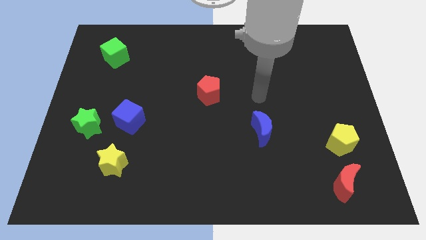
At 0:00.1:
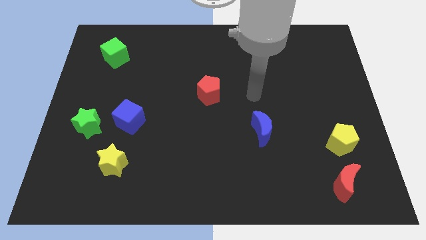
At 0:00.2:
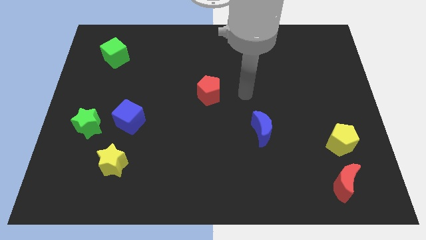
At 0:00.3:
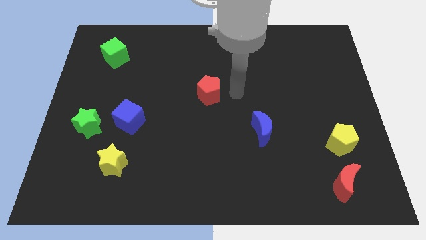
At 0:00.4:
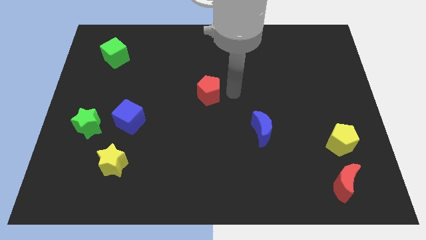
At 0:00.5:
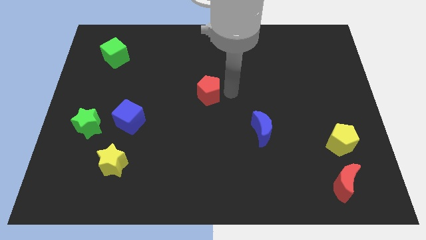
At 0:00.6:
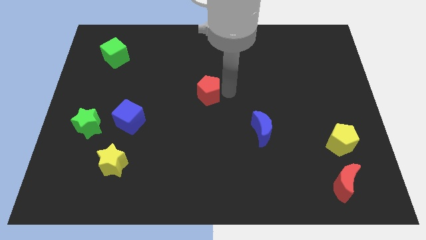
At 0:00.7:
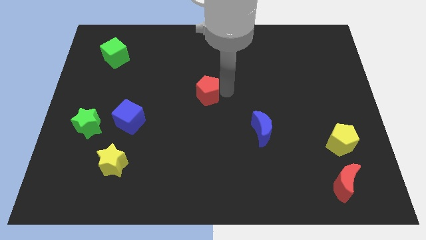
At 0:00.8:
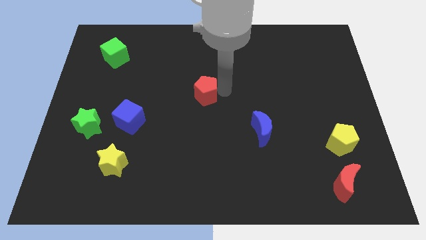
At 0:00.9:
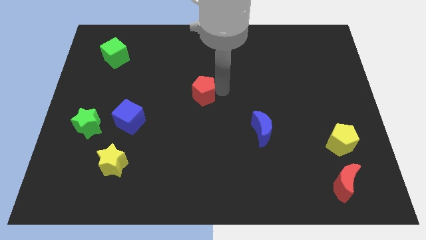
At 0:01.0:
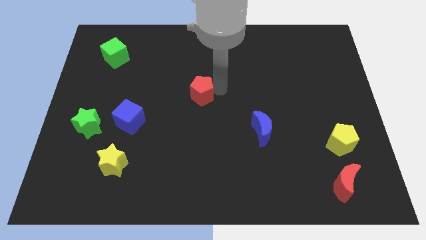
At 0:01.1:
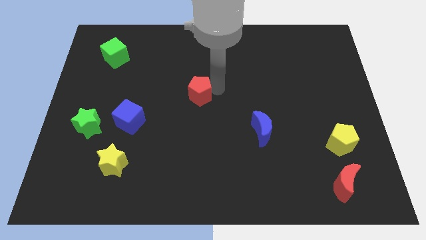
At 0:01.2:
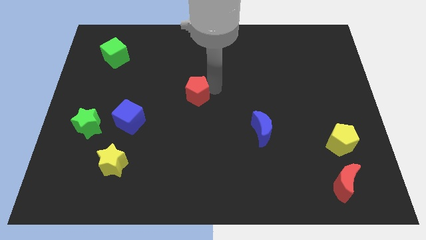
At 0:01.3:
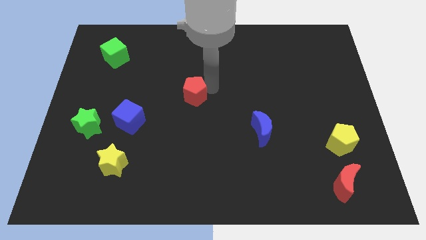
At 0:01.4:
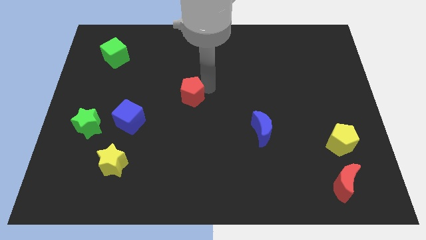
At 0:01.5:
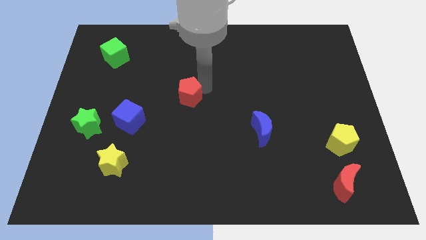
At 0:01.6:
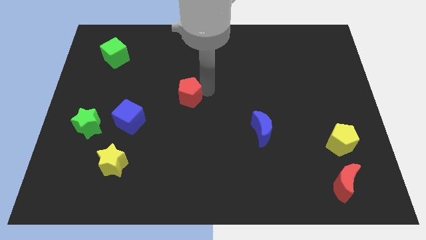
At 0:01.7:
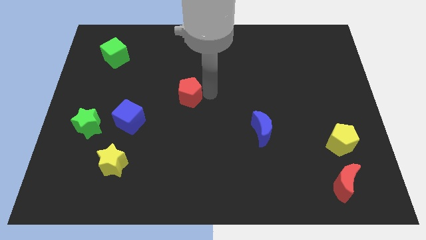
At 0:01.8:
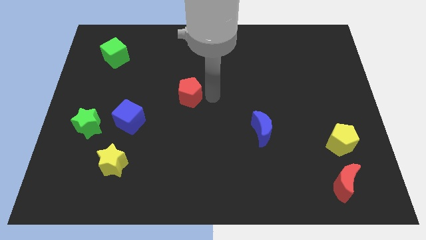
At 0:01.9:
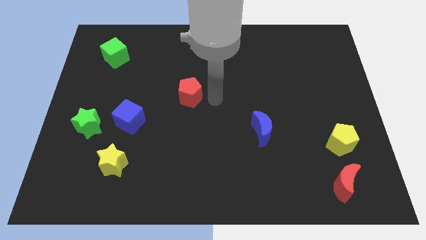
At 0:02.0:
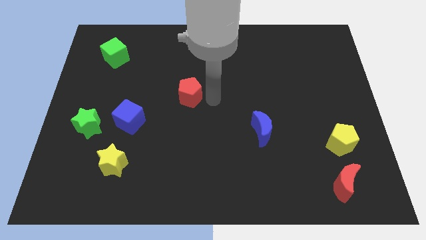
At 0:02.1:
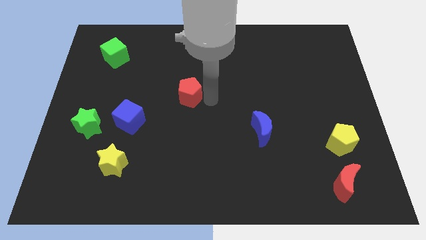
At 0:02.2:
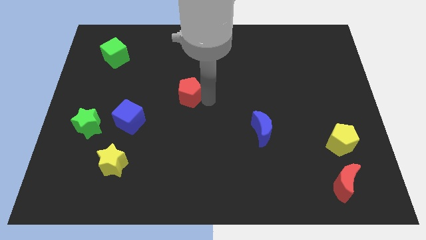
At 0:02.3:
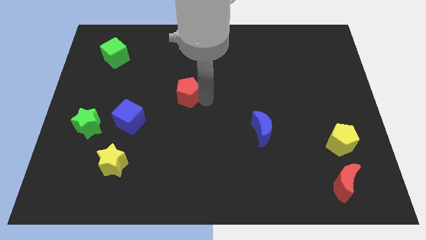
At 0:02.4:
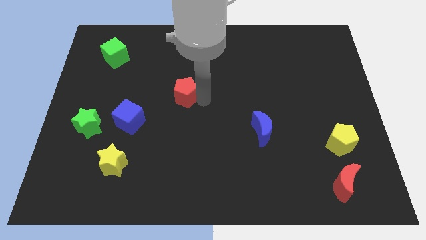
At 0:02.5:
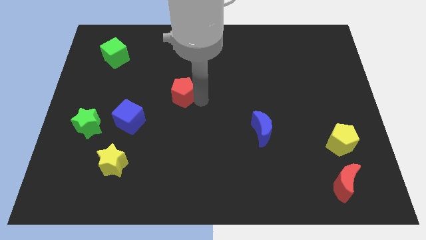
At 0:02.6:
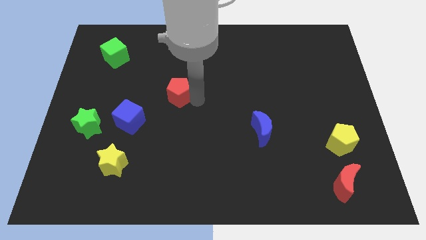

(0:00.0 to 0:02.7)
push the red pentagon somewhat to the left

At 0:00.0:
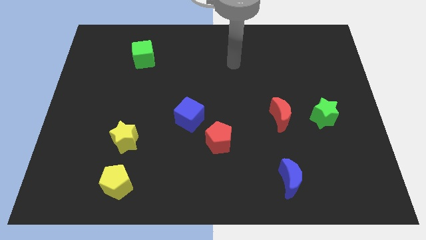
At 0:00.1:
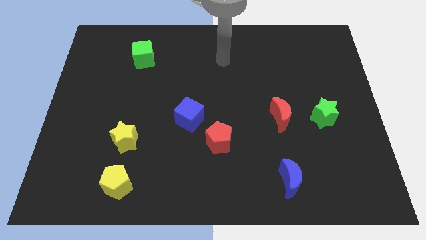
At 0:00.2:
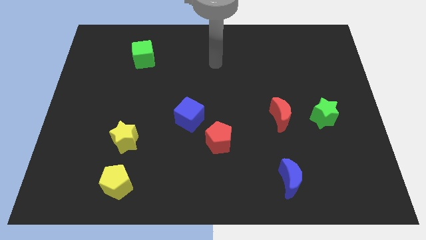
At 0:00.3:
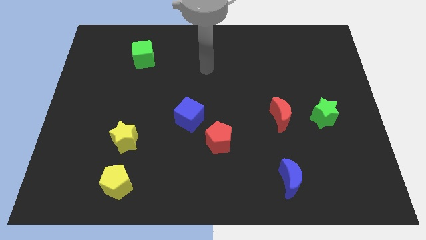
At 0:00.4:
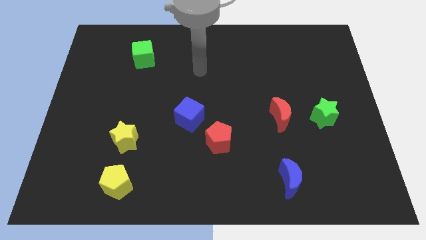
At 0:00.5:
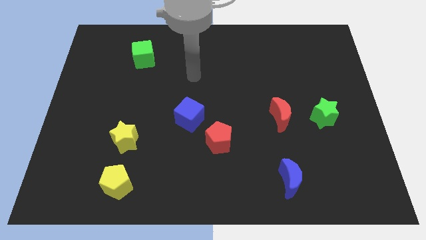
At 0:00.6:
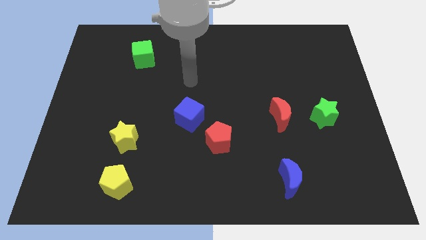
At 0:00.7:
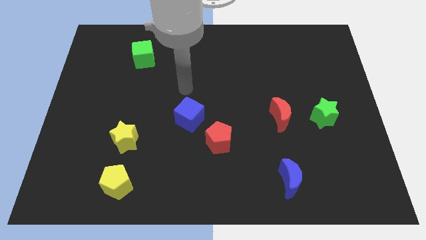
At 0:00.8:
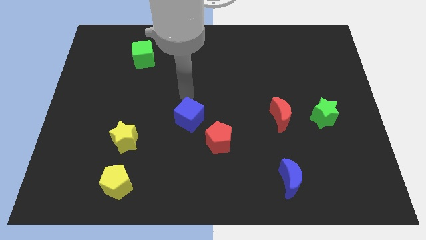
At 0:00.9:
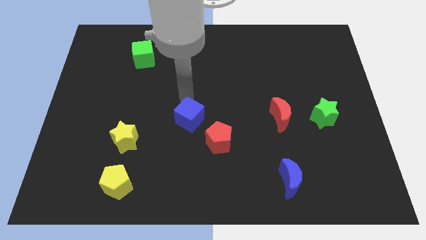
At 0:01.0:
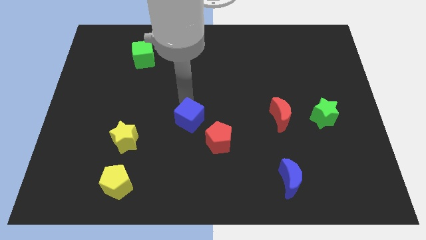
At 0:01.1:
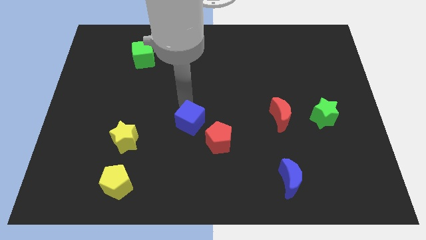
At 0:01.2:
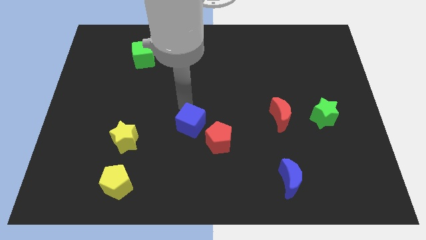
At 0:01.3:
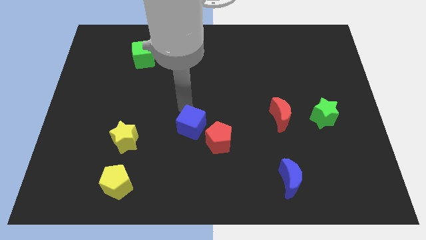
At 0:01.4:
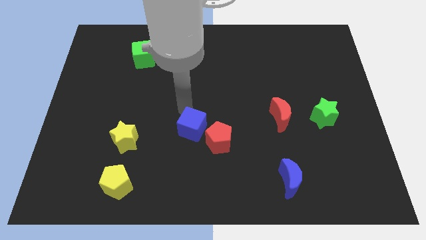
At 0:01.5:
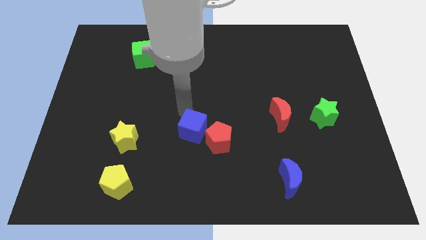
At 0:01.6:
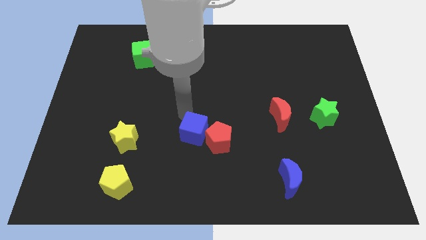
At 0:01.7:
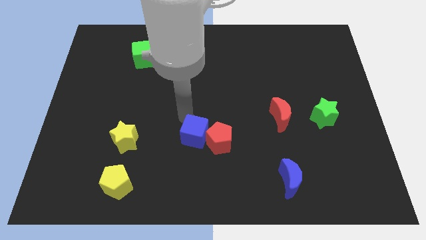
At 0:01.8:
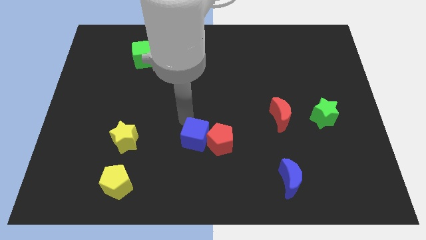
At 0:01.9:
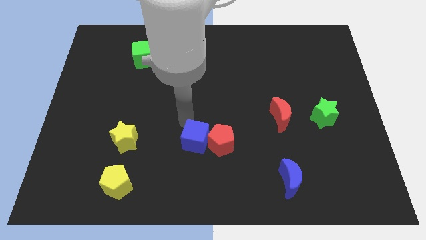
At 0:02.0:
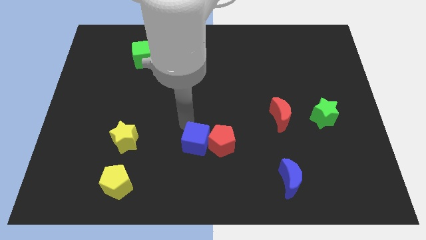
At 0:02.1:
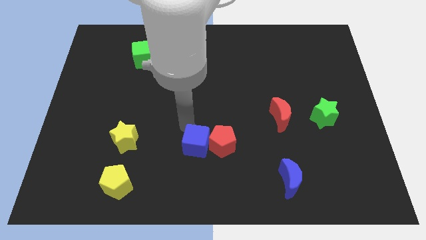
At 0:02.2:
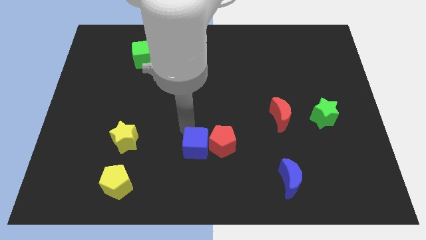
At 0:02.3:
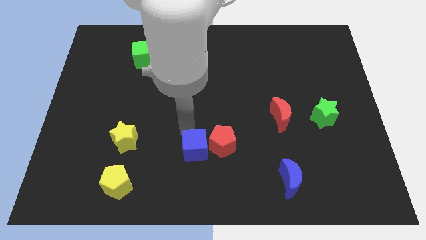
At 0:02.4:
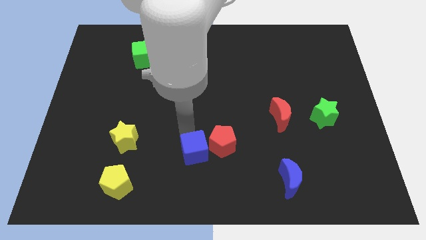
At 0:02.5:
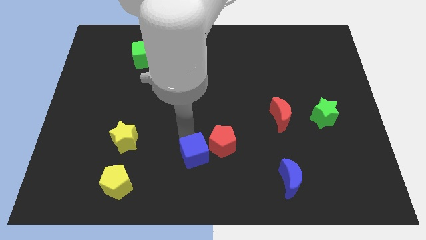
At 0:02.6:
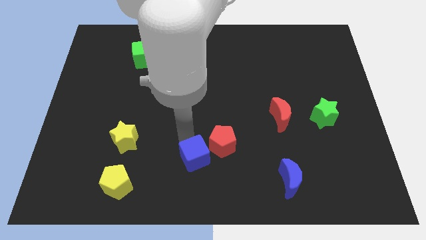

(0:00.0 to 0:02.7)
push the blue cube a little down and right

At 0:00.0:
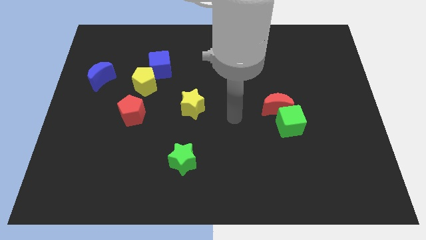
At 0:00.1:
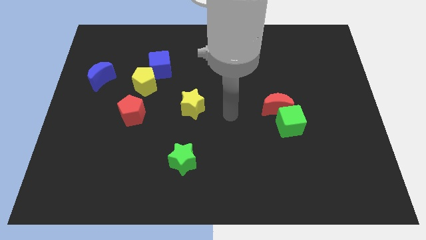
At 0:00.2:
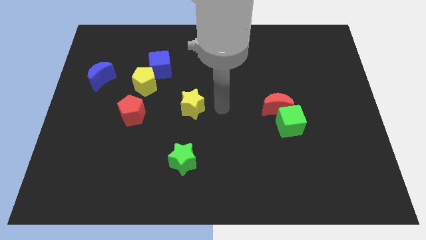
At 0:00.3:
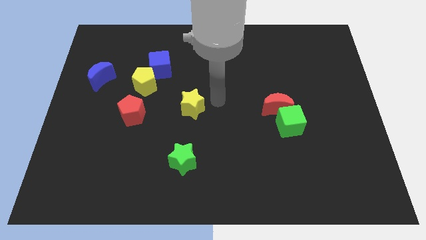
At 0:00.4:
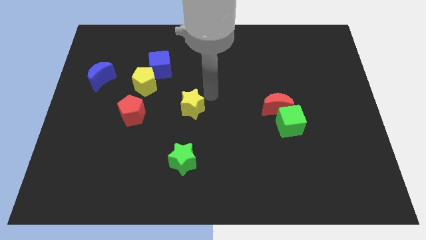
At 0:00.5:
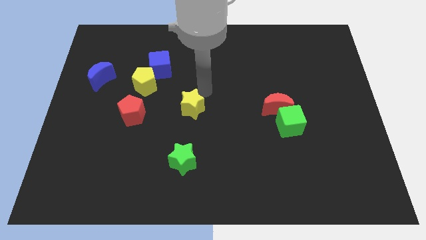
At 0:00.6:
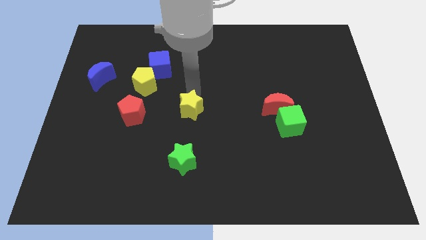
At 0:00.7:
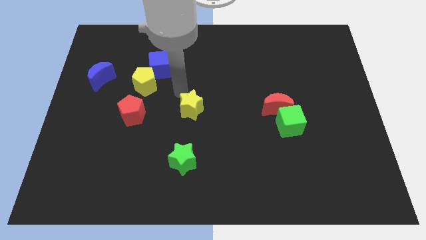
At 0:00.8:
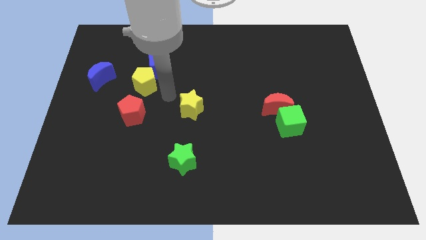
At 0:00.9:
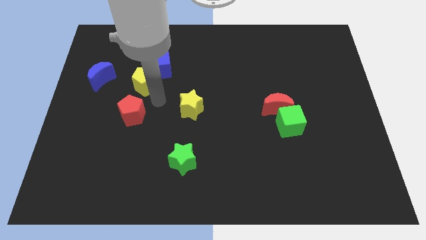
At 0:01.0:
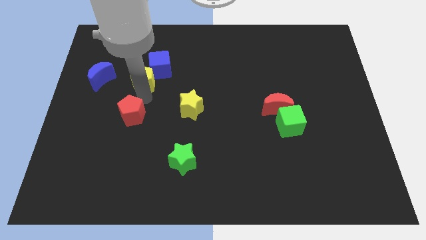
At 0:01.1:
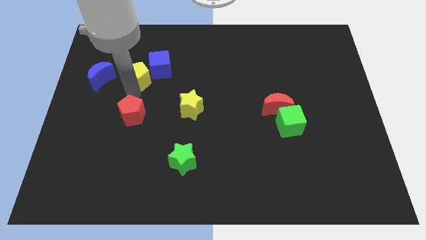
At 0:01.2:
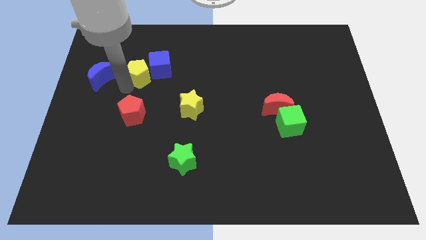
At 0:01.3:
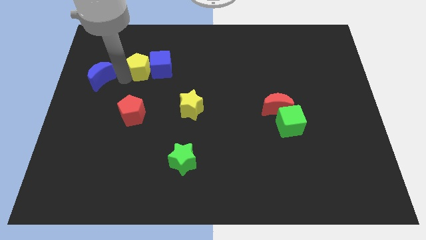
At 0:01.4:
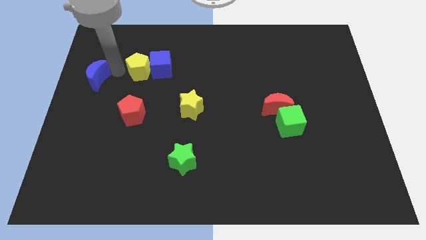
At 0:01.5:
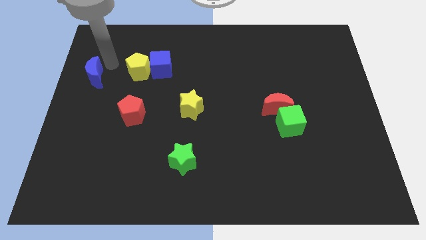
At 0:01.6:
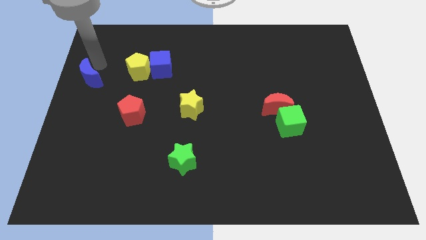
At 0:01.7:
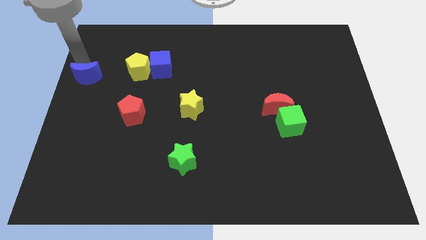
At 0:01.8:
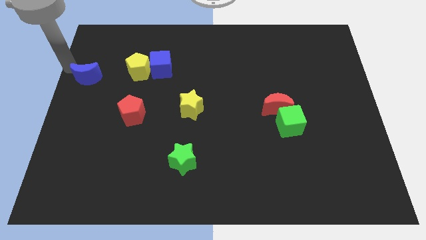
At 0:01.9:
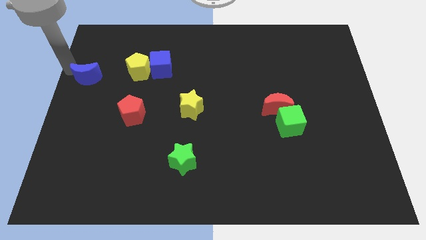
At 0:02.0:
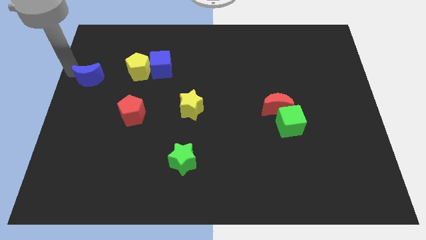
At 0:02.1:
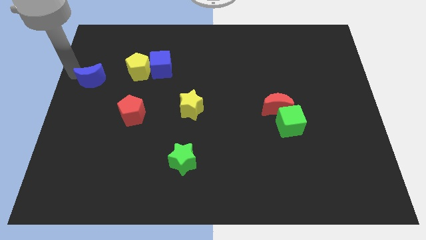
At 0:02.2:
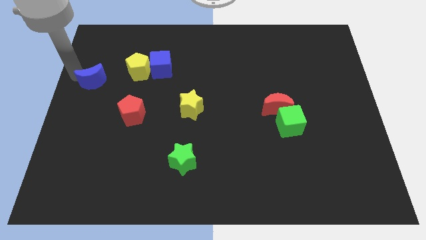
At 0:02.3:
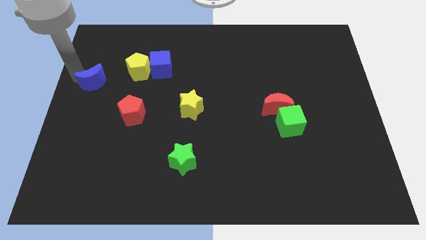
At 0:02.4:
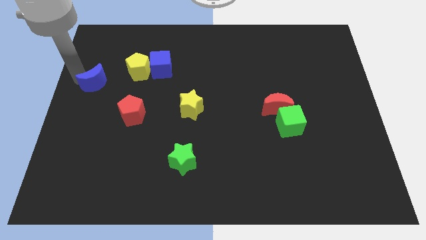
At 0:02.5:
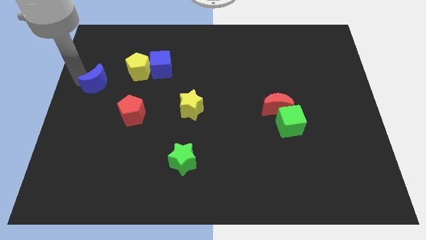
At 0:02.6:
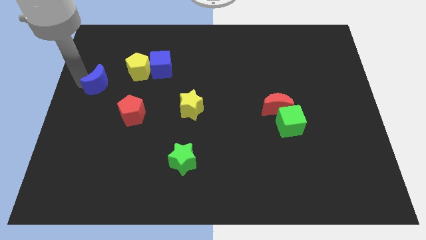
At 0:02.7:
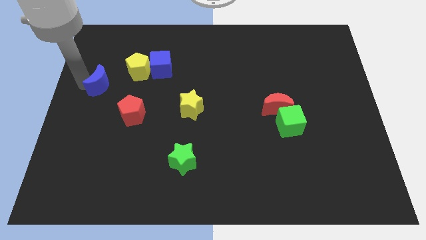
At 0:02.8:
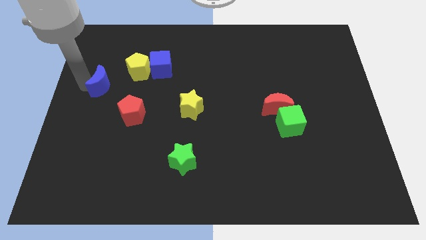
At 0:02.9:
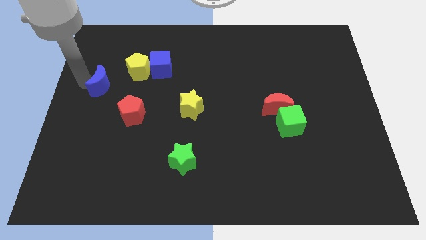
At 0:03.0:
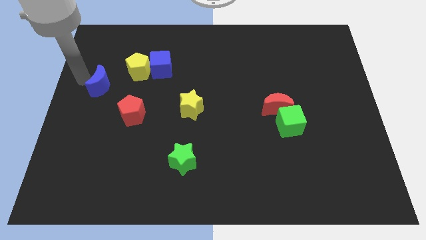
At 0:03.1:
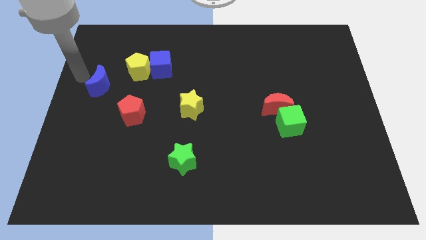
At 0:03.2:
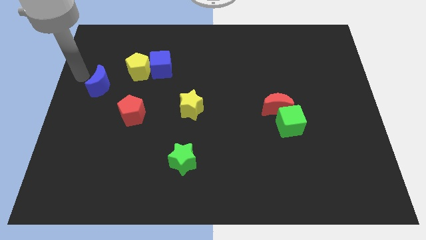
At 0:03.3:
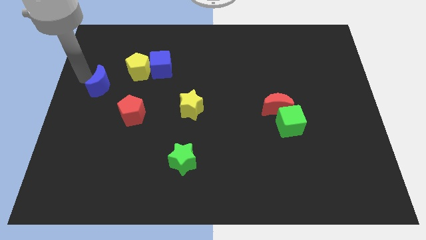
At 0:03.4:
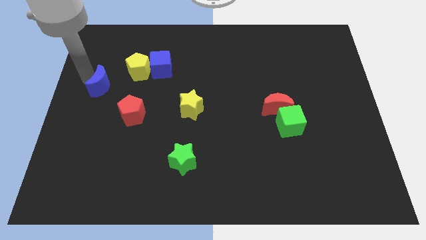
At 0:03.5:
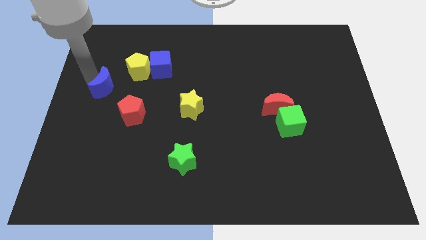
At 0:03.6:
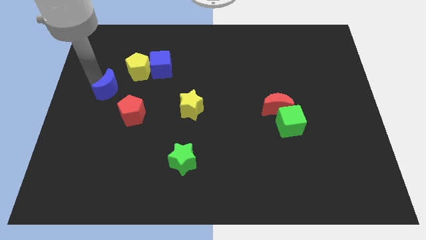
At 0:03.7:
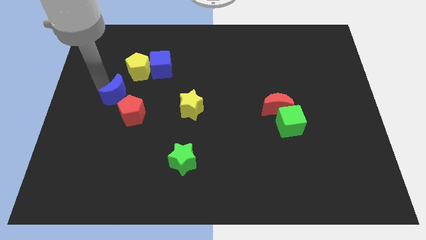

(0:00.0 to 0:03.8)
slightly move the blue moon diagonally downwards and to the right
